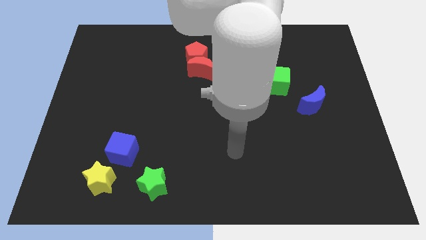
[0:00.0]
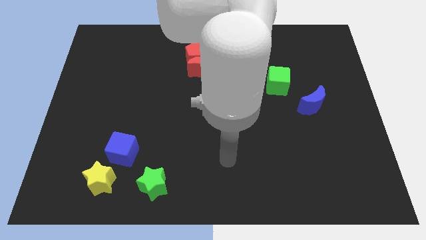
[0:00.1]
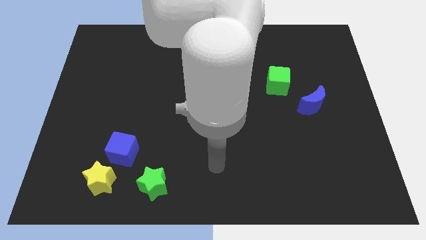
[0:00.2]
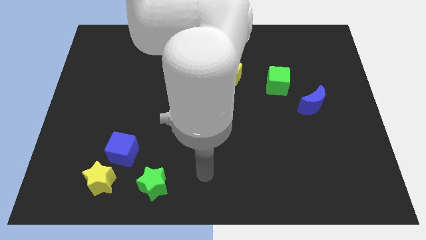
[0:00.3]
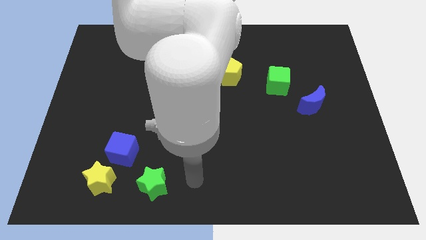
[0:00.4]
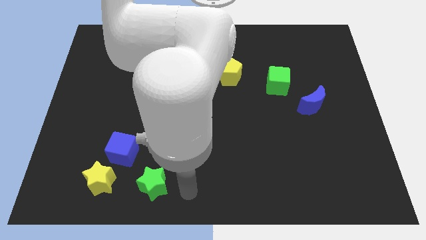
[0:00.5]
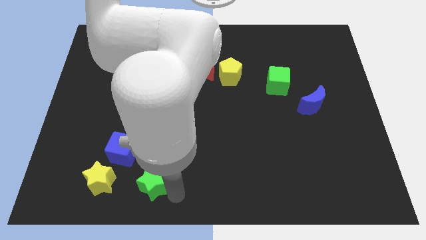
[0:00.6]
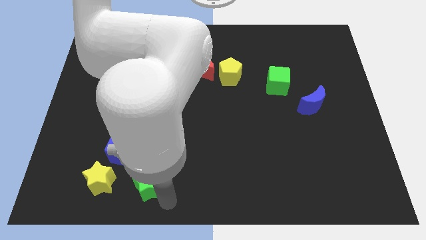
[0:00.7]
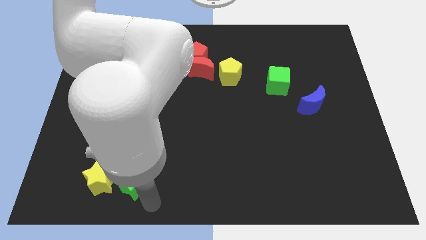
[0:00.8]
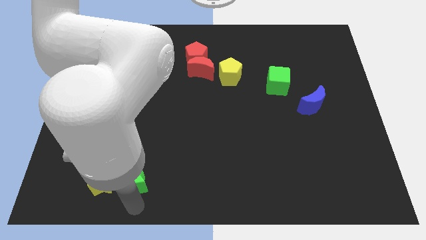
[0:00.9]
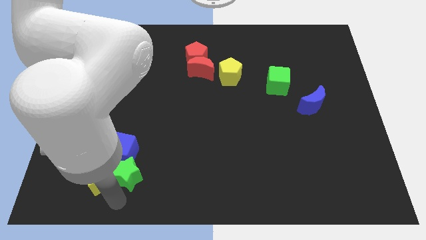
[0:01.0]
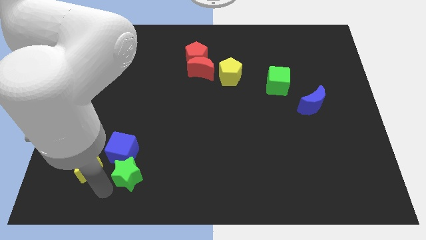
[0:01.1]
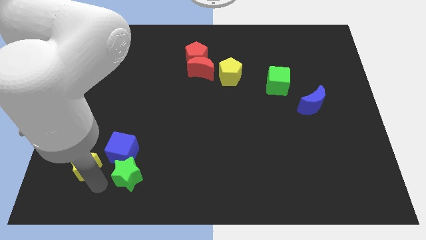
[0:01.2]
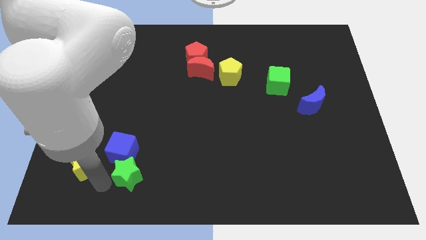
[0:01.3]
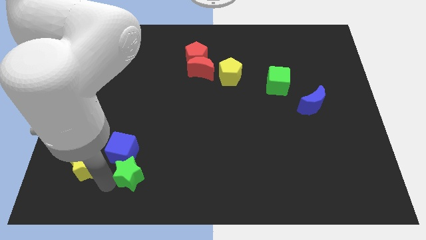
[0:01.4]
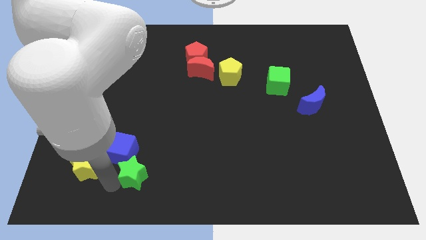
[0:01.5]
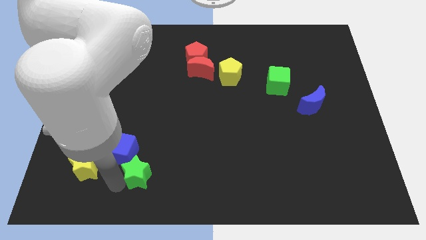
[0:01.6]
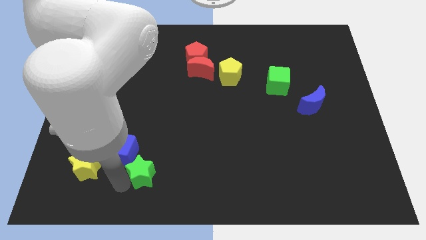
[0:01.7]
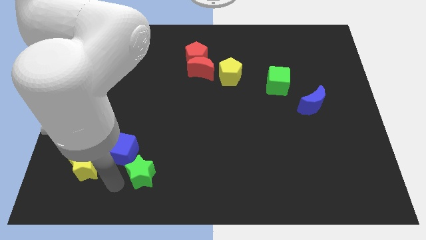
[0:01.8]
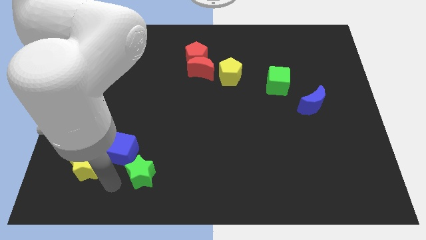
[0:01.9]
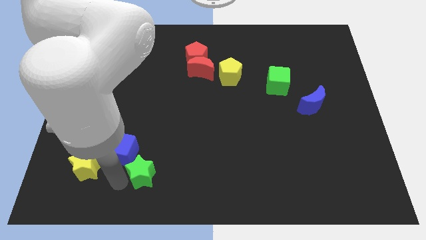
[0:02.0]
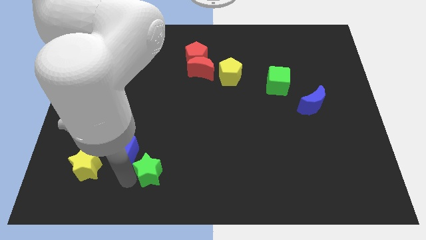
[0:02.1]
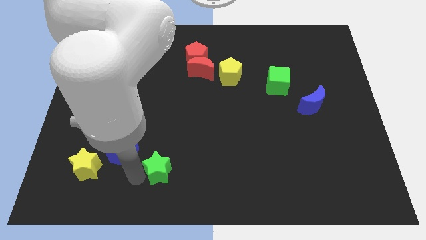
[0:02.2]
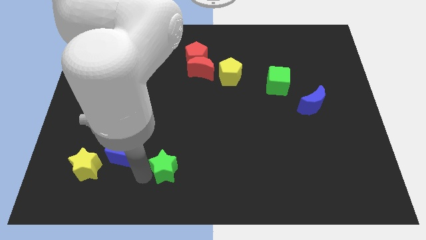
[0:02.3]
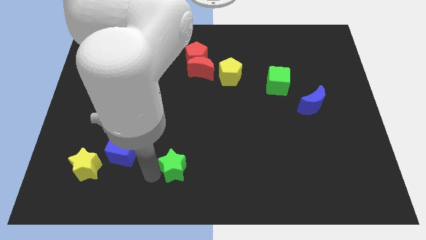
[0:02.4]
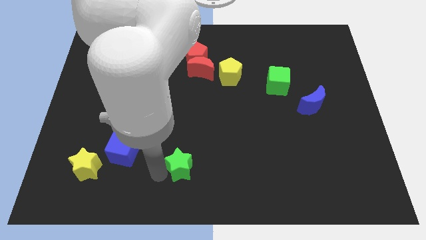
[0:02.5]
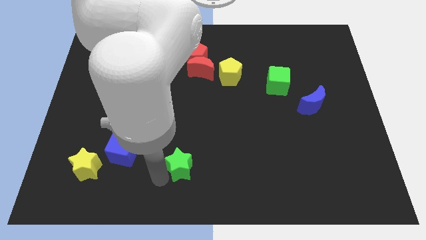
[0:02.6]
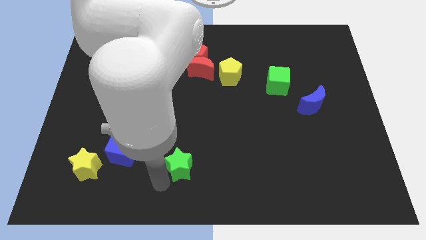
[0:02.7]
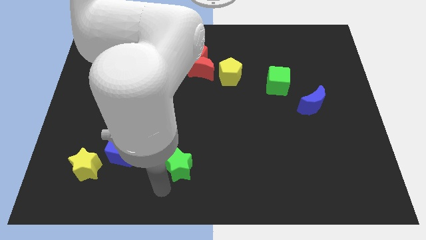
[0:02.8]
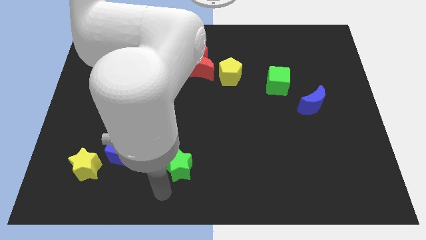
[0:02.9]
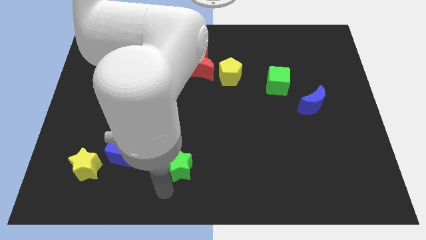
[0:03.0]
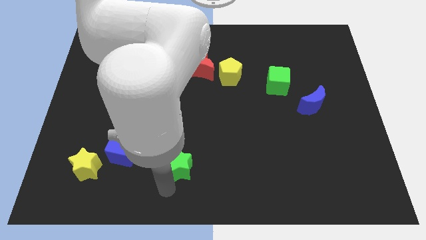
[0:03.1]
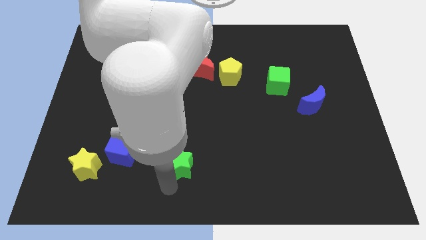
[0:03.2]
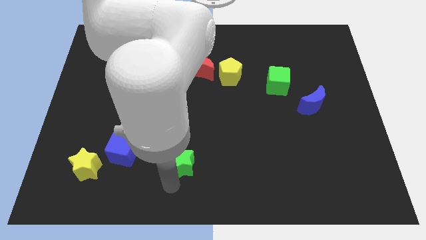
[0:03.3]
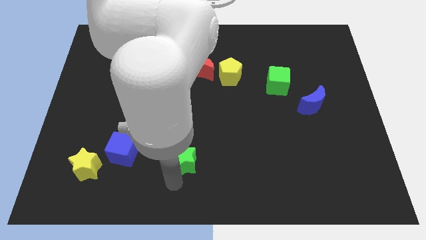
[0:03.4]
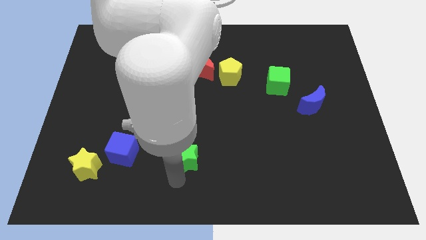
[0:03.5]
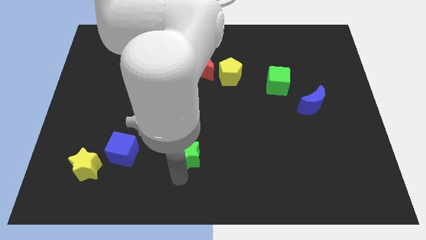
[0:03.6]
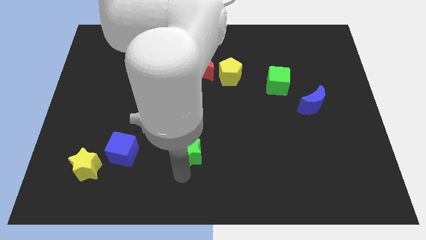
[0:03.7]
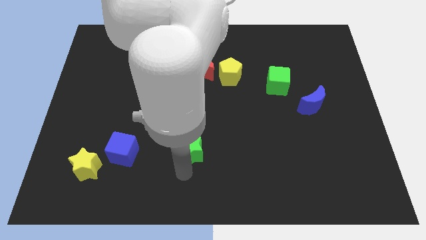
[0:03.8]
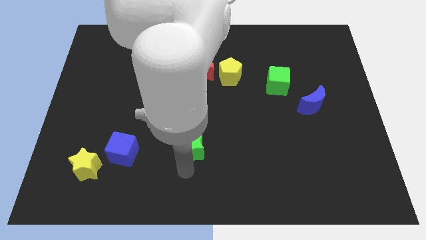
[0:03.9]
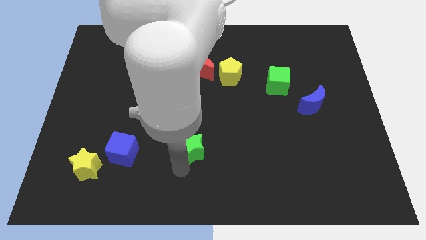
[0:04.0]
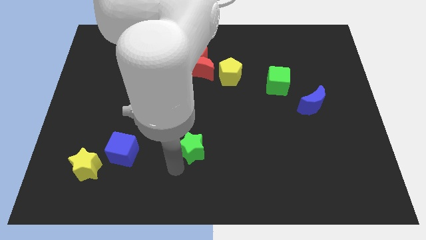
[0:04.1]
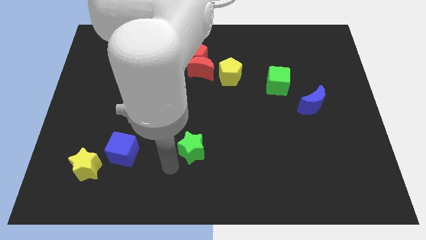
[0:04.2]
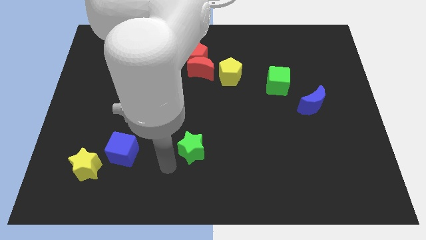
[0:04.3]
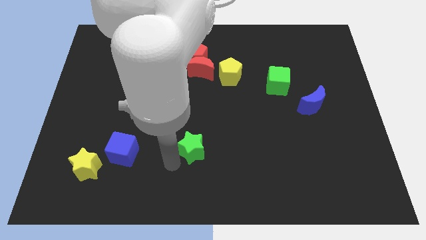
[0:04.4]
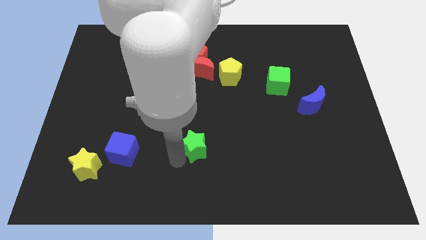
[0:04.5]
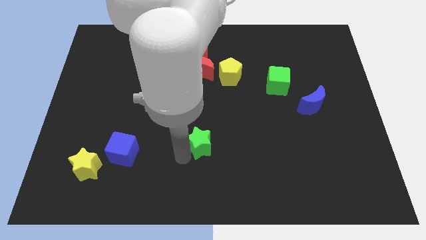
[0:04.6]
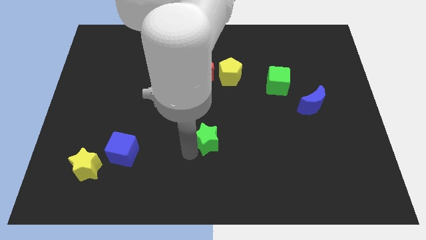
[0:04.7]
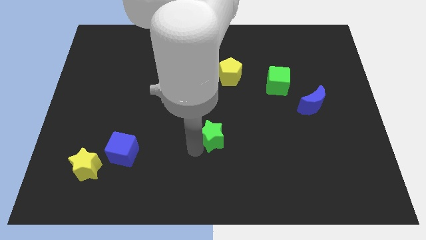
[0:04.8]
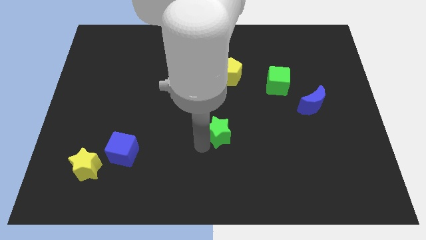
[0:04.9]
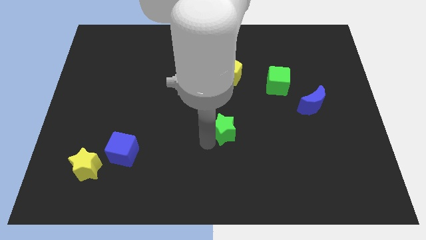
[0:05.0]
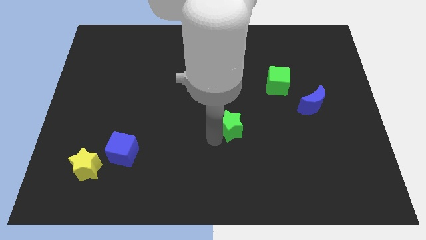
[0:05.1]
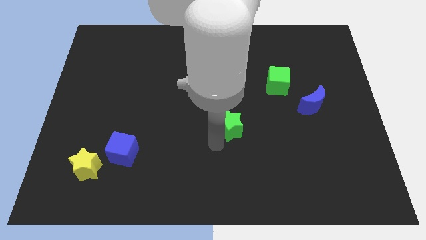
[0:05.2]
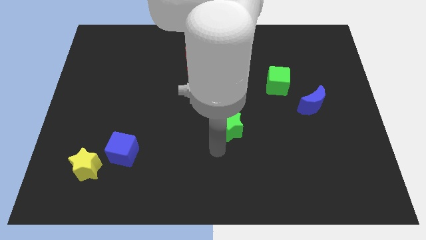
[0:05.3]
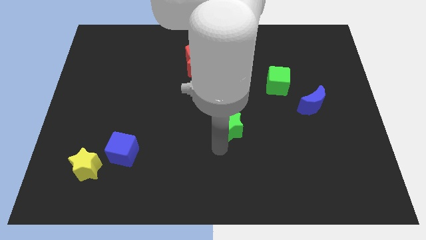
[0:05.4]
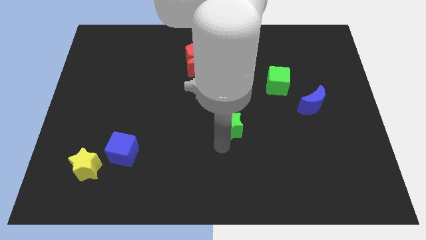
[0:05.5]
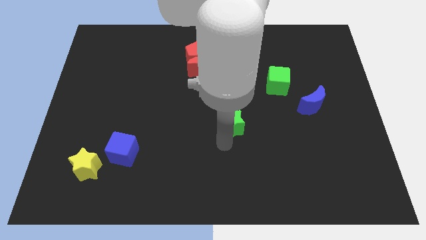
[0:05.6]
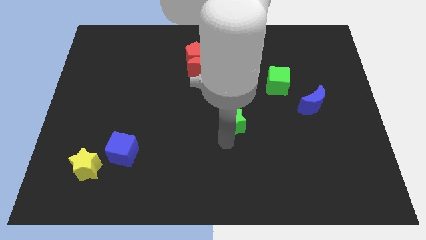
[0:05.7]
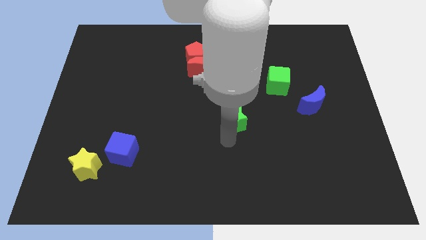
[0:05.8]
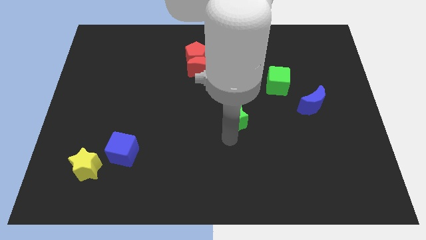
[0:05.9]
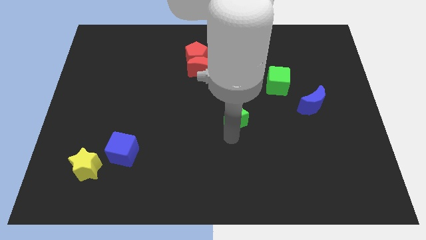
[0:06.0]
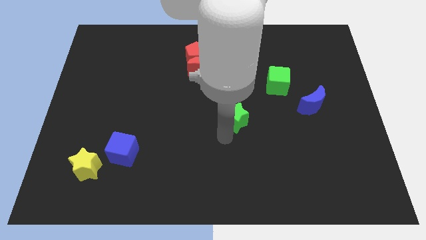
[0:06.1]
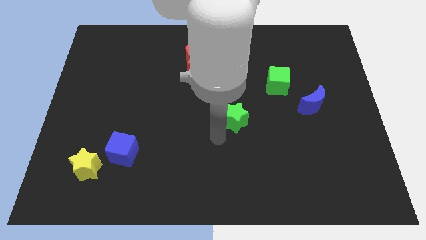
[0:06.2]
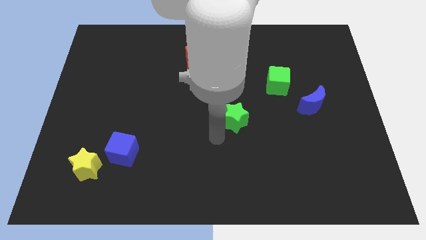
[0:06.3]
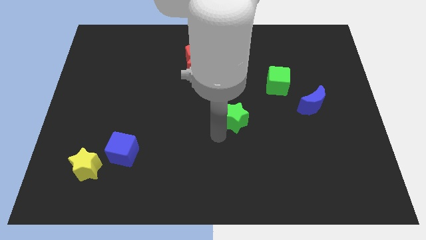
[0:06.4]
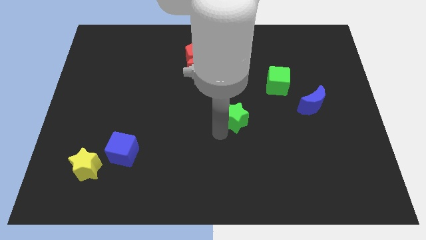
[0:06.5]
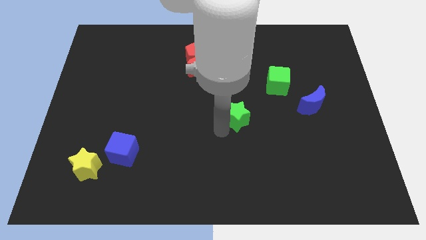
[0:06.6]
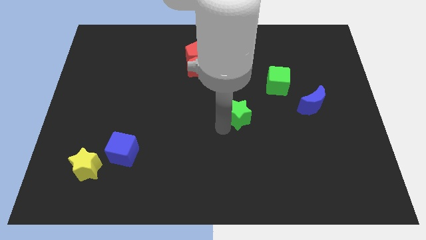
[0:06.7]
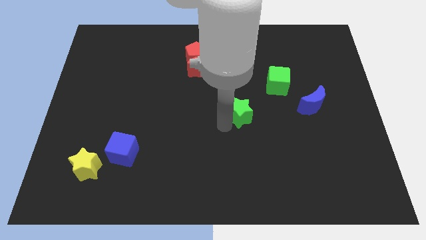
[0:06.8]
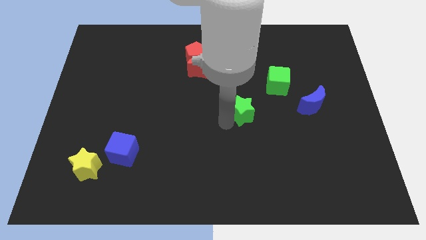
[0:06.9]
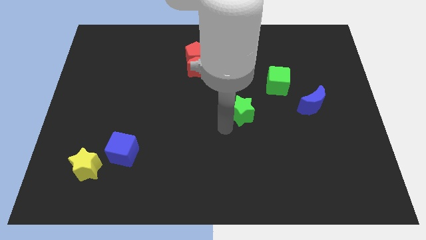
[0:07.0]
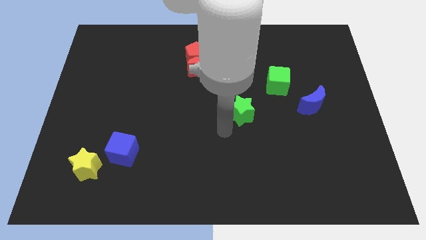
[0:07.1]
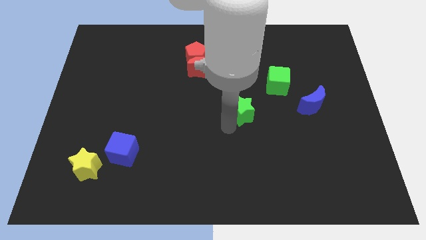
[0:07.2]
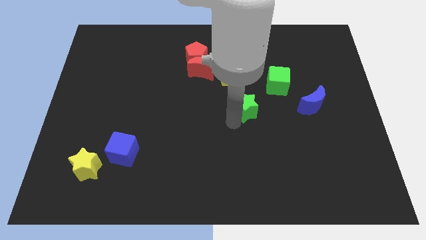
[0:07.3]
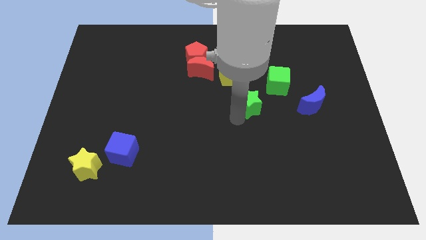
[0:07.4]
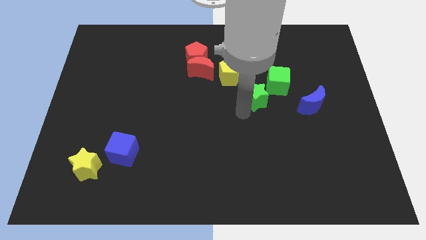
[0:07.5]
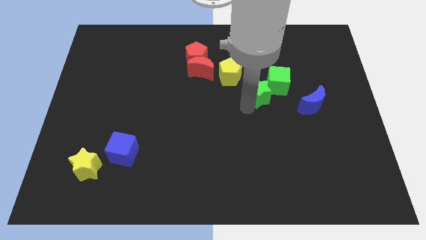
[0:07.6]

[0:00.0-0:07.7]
slide the green star towards the green cube
